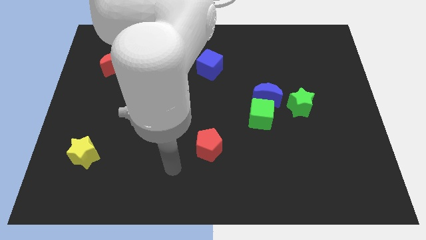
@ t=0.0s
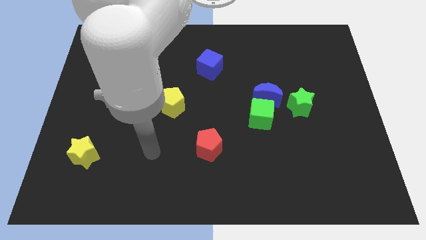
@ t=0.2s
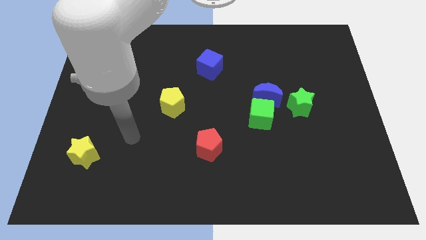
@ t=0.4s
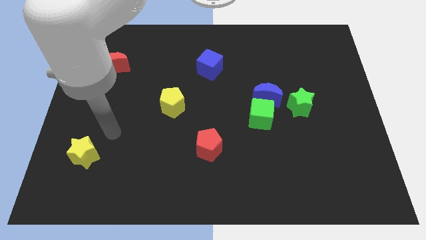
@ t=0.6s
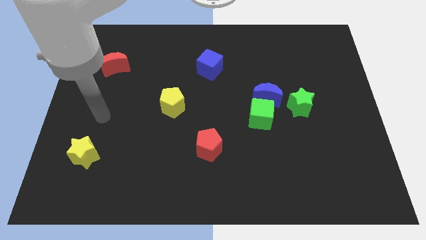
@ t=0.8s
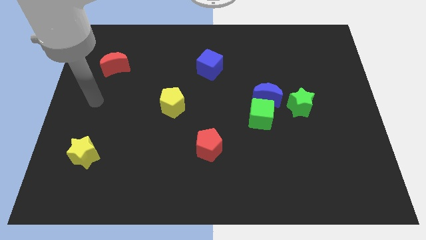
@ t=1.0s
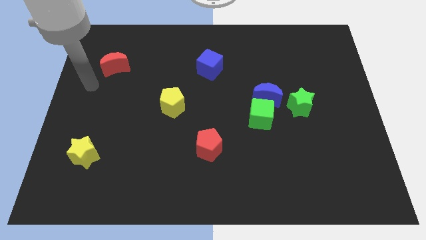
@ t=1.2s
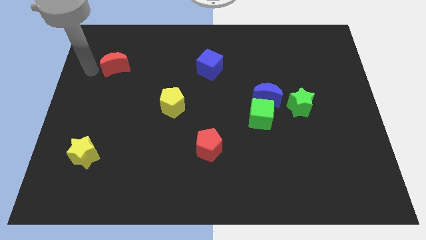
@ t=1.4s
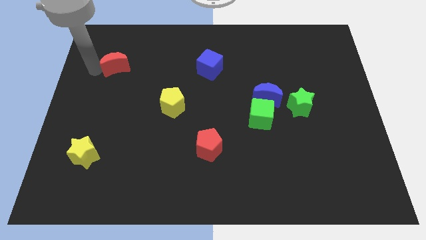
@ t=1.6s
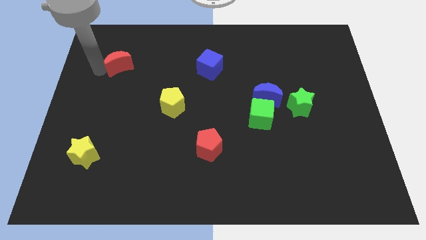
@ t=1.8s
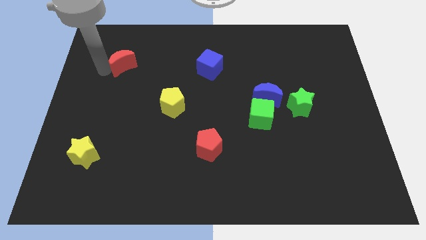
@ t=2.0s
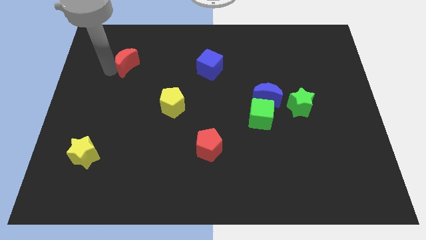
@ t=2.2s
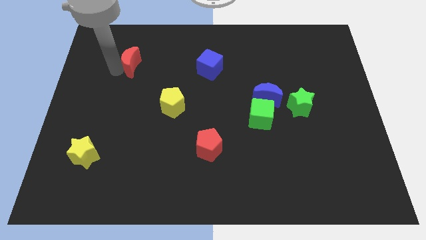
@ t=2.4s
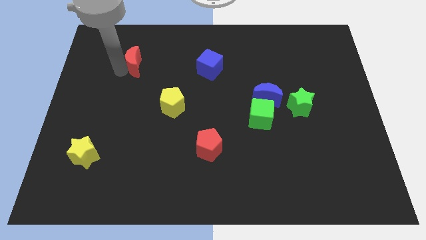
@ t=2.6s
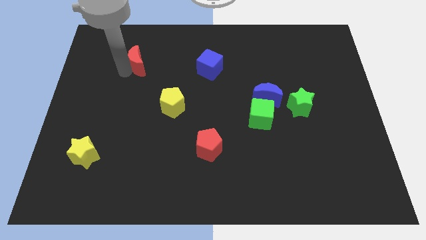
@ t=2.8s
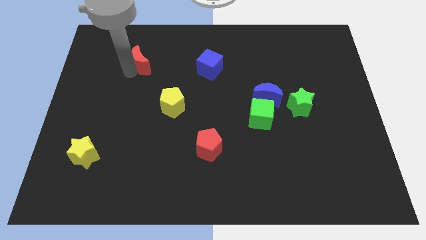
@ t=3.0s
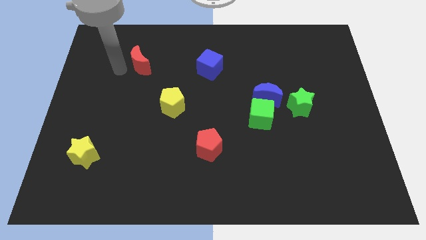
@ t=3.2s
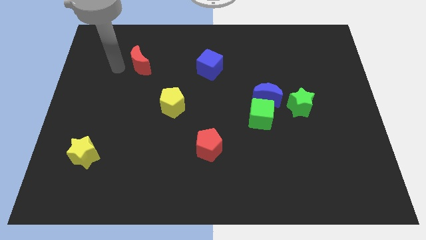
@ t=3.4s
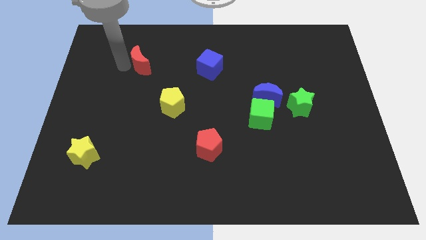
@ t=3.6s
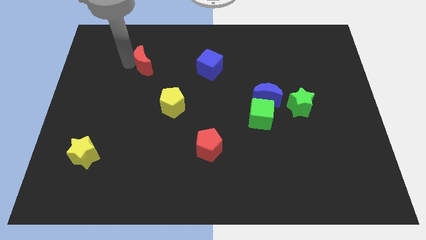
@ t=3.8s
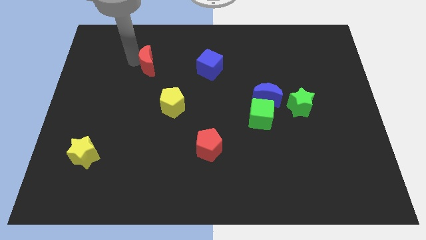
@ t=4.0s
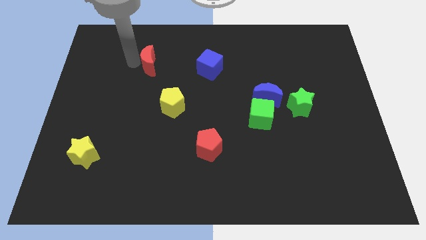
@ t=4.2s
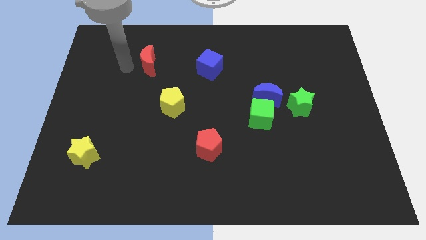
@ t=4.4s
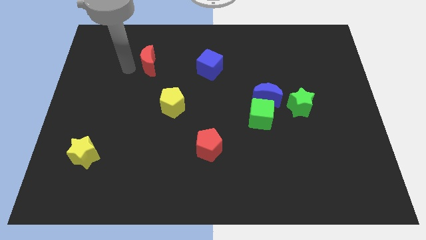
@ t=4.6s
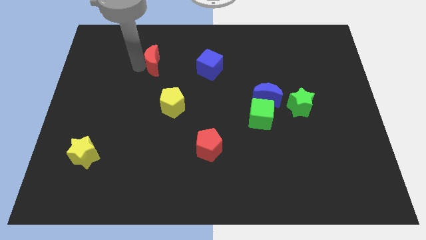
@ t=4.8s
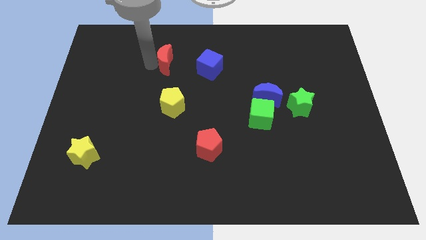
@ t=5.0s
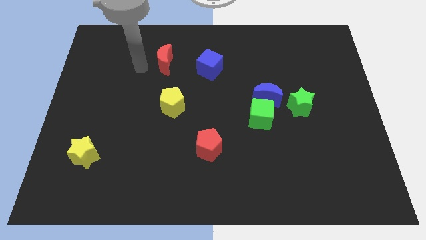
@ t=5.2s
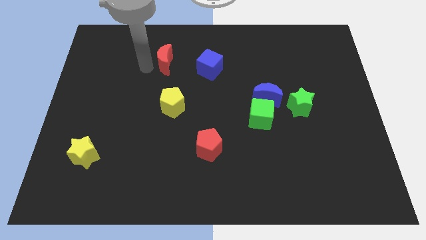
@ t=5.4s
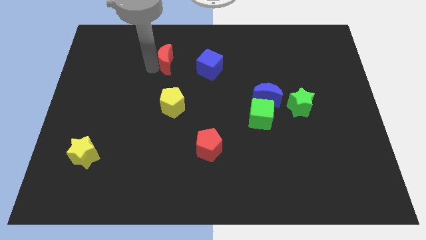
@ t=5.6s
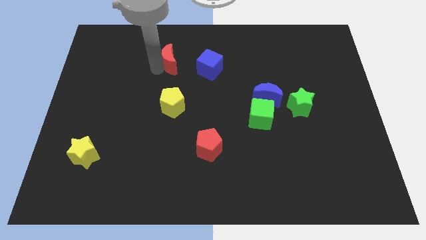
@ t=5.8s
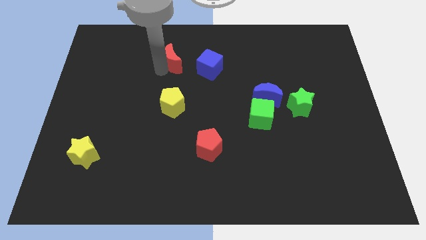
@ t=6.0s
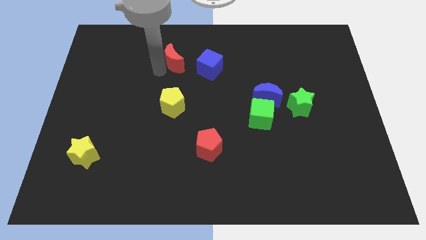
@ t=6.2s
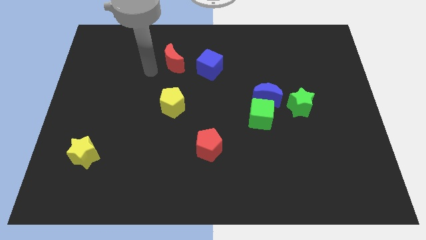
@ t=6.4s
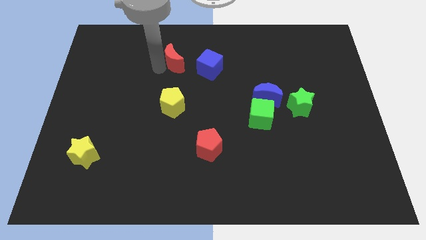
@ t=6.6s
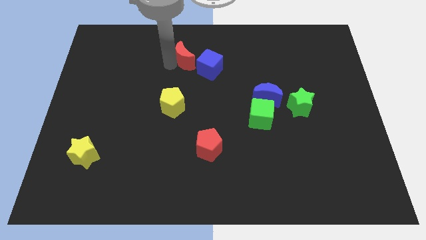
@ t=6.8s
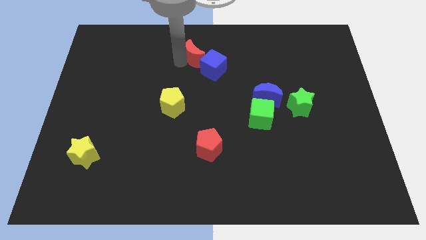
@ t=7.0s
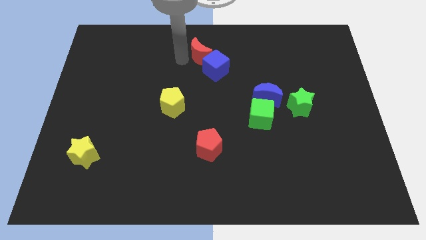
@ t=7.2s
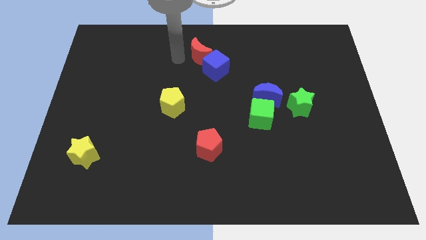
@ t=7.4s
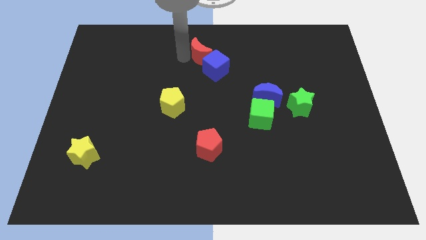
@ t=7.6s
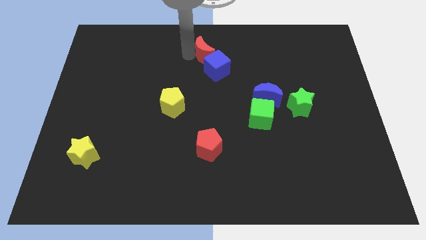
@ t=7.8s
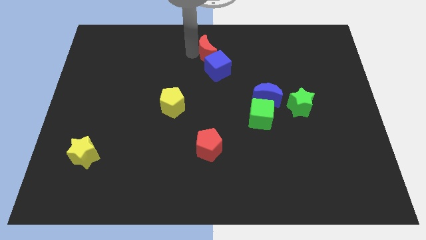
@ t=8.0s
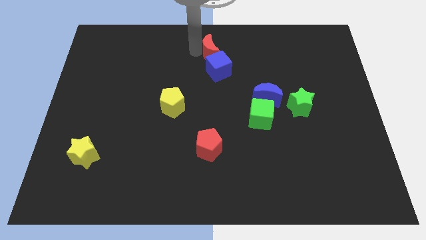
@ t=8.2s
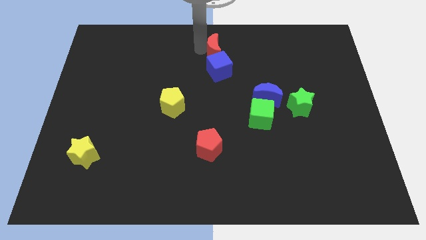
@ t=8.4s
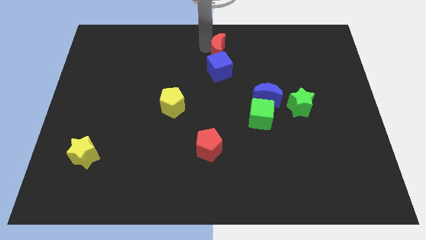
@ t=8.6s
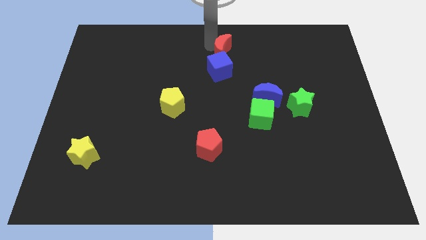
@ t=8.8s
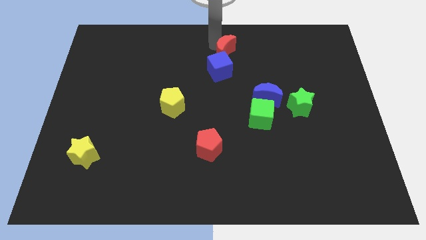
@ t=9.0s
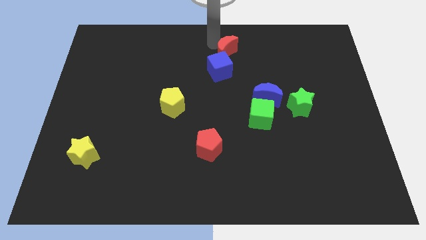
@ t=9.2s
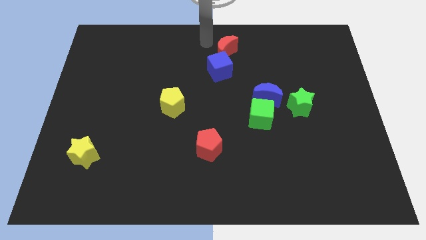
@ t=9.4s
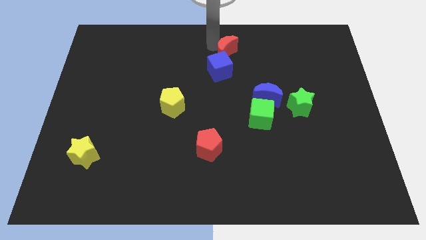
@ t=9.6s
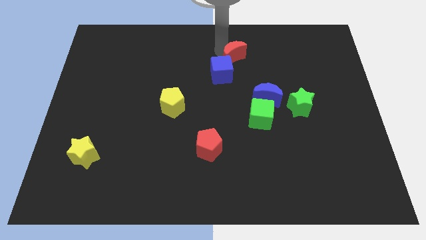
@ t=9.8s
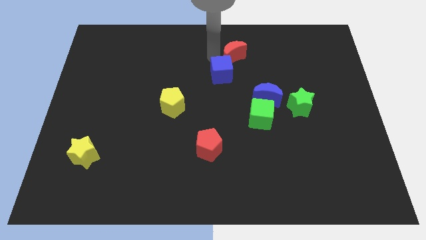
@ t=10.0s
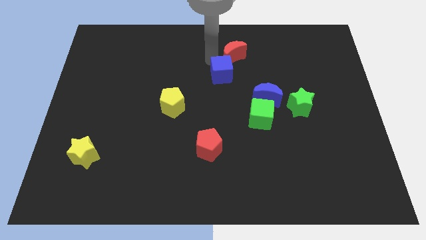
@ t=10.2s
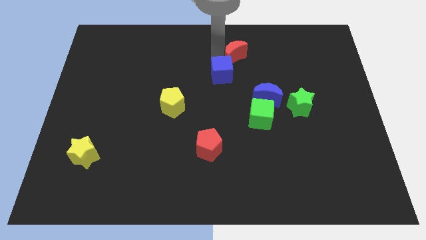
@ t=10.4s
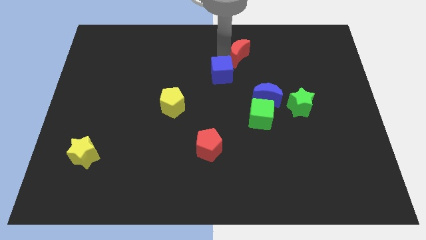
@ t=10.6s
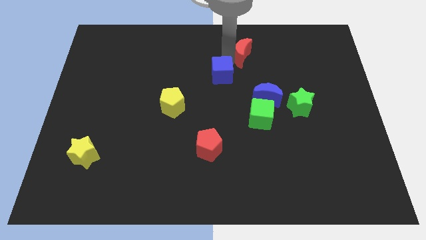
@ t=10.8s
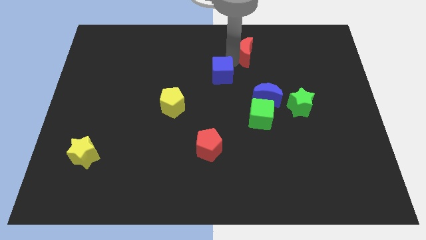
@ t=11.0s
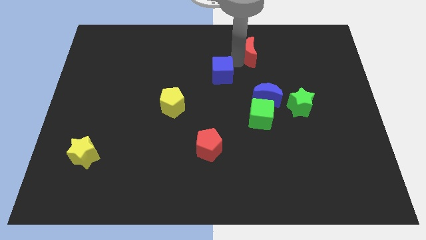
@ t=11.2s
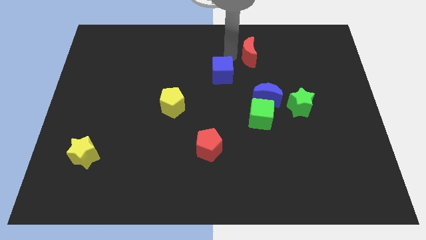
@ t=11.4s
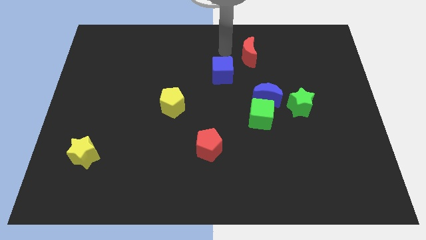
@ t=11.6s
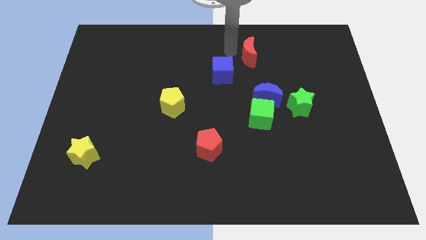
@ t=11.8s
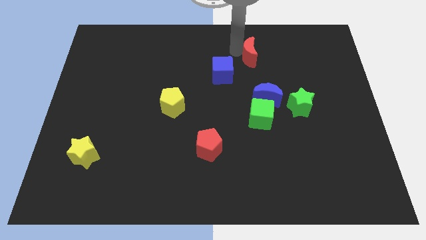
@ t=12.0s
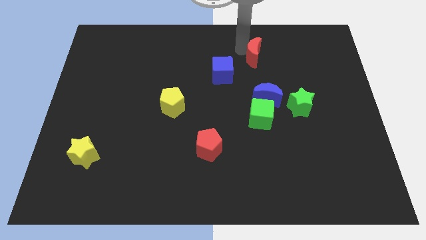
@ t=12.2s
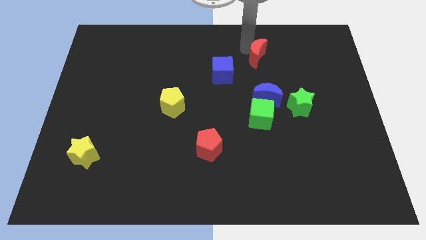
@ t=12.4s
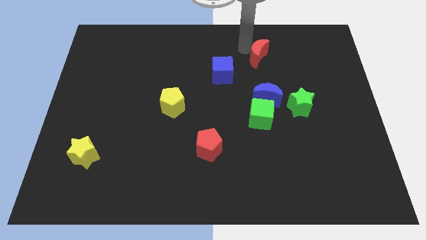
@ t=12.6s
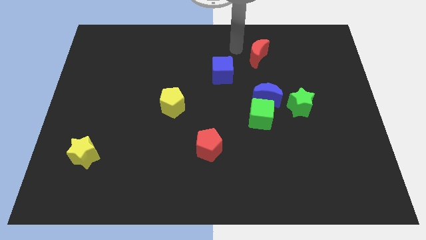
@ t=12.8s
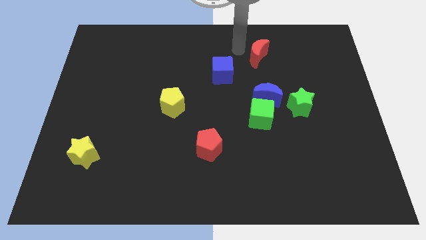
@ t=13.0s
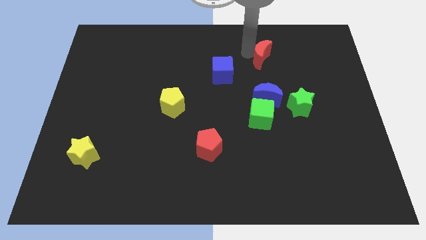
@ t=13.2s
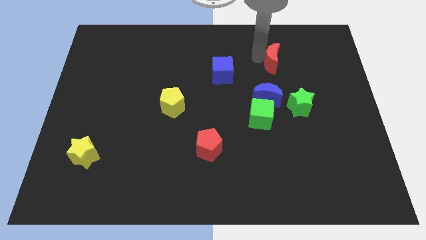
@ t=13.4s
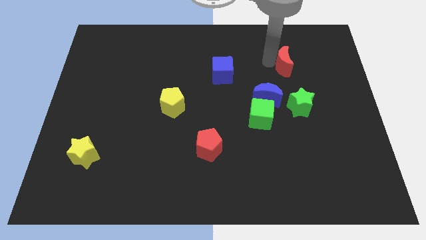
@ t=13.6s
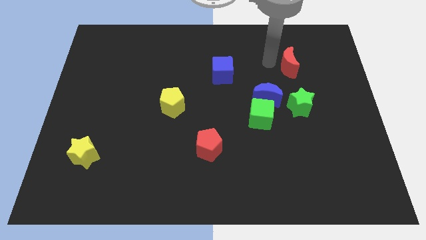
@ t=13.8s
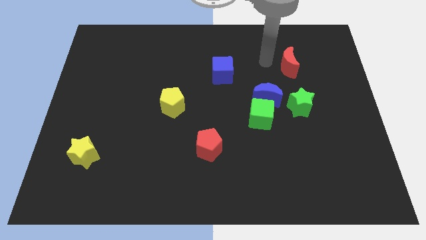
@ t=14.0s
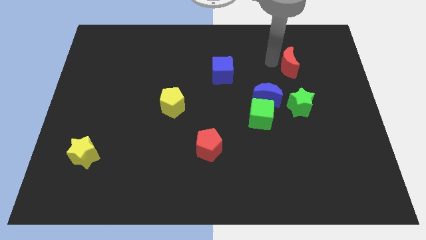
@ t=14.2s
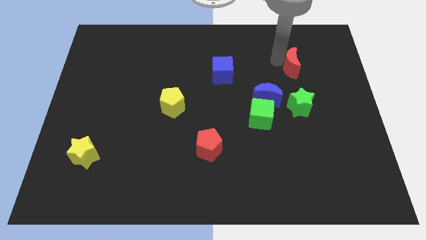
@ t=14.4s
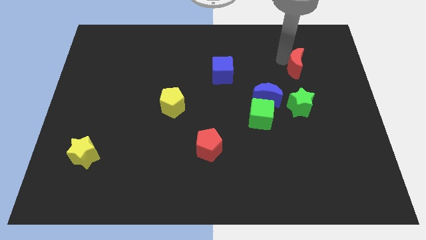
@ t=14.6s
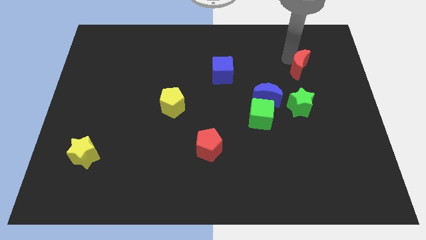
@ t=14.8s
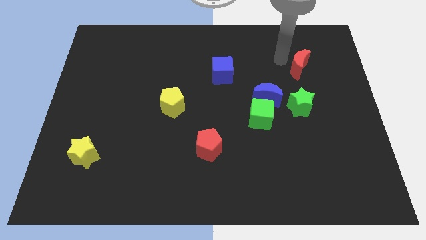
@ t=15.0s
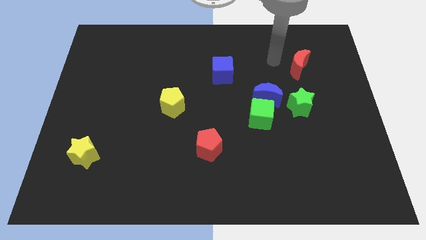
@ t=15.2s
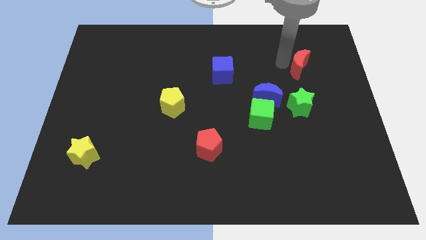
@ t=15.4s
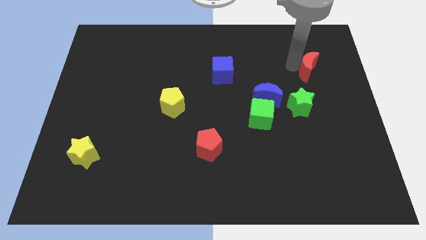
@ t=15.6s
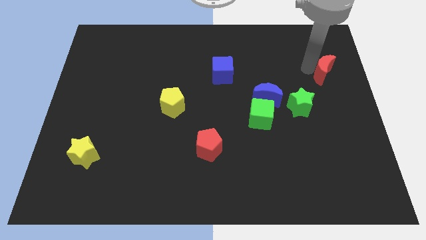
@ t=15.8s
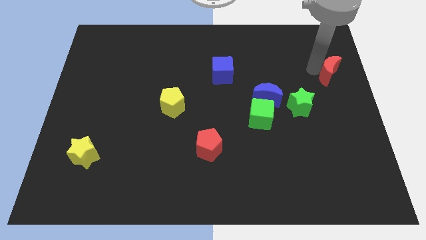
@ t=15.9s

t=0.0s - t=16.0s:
put the red moon to the right side of the board
